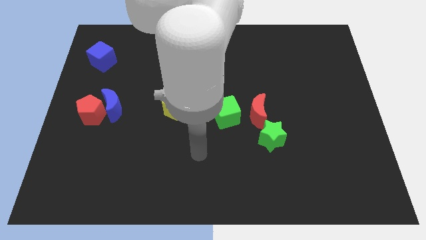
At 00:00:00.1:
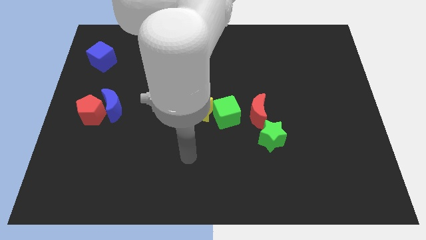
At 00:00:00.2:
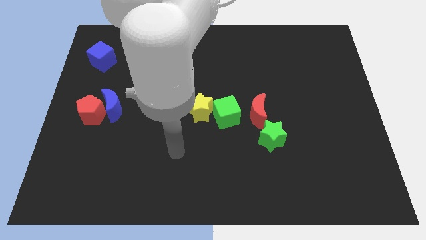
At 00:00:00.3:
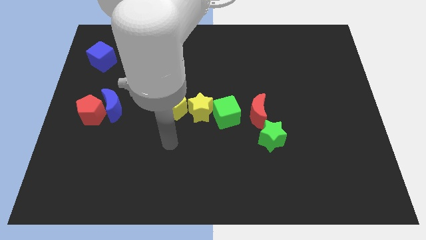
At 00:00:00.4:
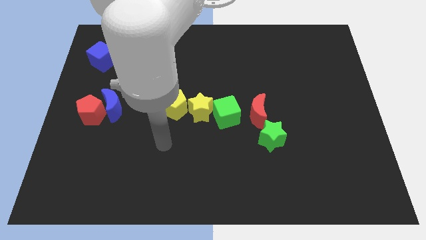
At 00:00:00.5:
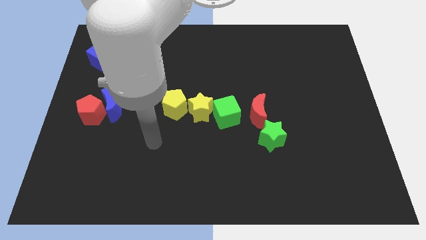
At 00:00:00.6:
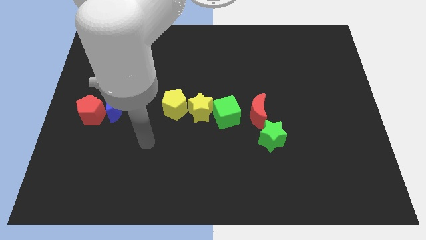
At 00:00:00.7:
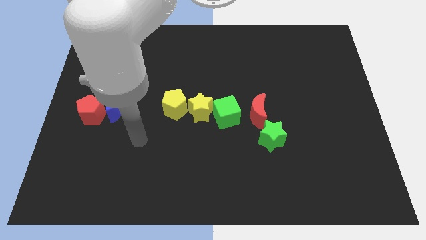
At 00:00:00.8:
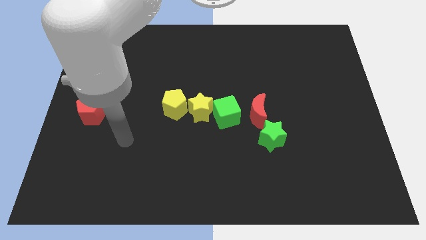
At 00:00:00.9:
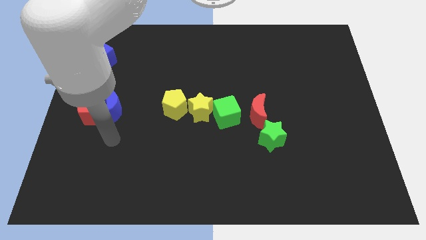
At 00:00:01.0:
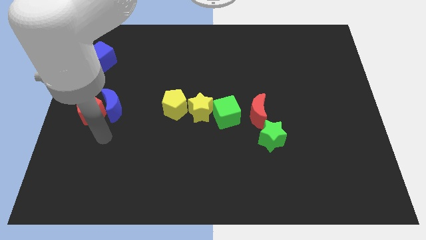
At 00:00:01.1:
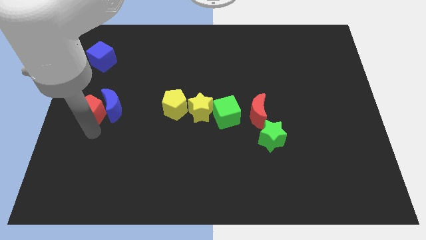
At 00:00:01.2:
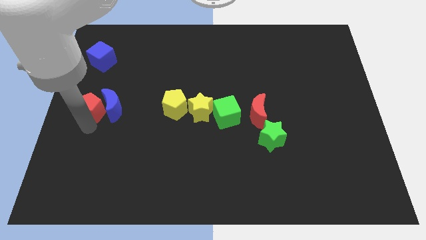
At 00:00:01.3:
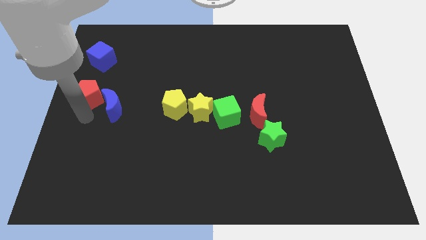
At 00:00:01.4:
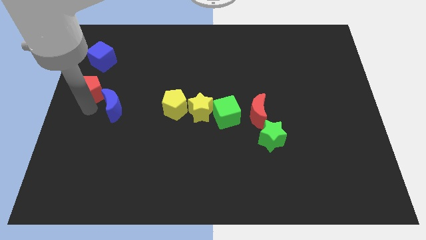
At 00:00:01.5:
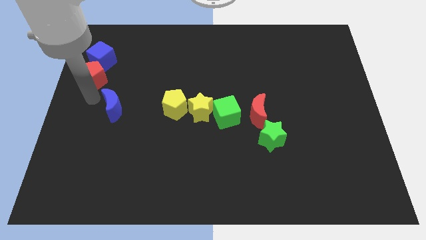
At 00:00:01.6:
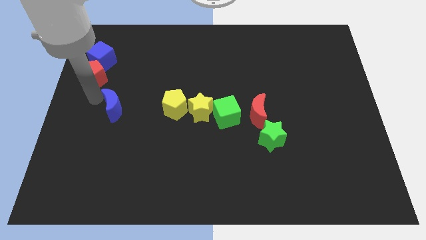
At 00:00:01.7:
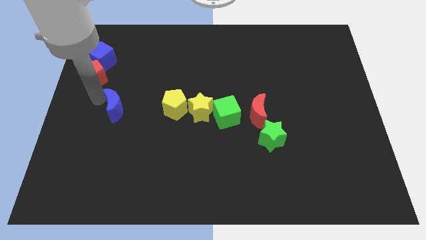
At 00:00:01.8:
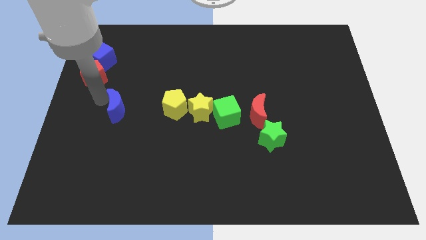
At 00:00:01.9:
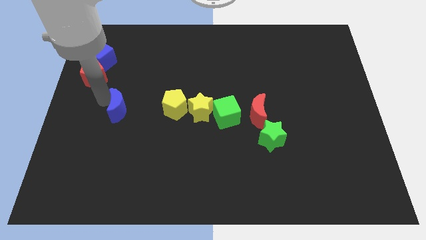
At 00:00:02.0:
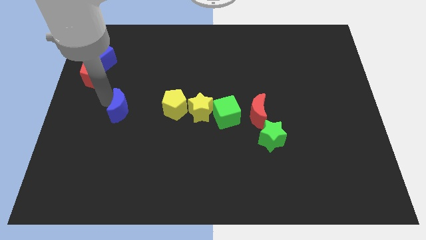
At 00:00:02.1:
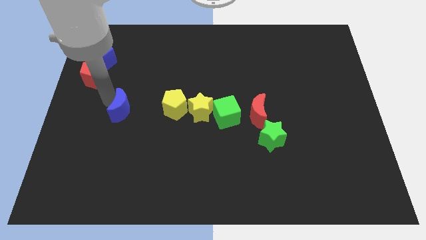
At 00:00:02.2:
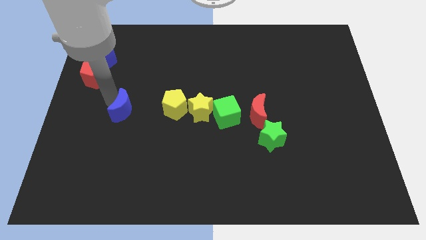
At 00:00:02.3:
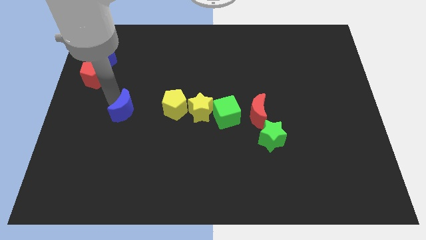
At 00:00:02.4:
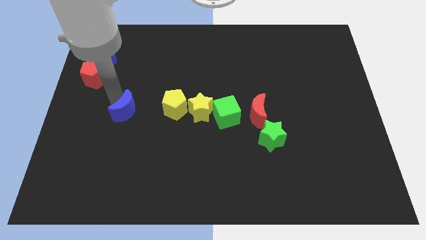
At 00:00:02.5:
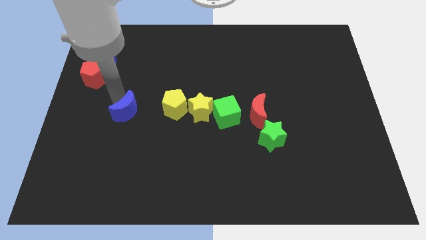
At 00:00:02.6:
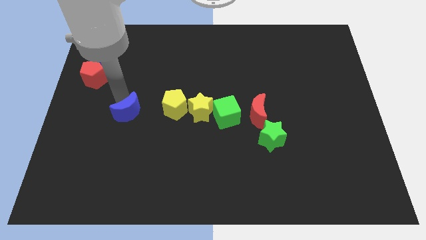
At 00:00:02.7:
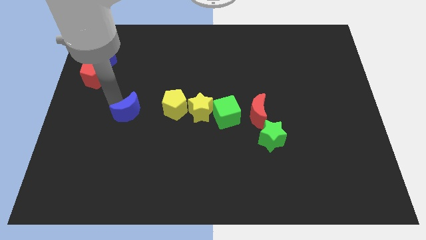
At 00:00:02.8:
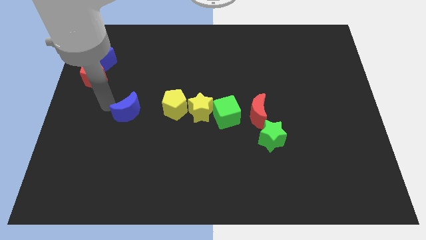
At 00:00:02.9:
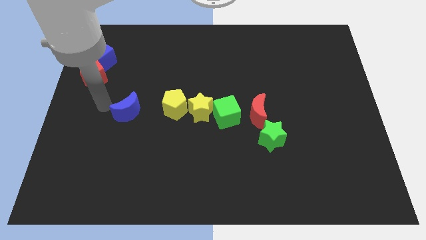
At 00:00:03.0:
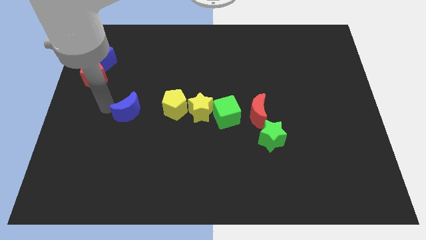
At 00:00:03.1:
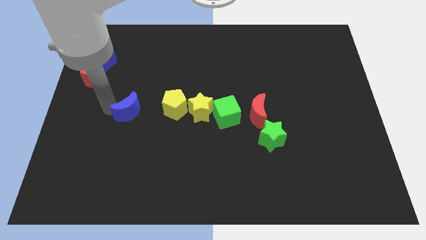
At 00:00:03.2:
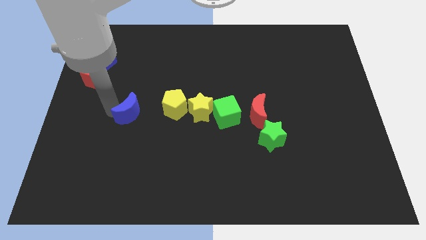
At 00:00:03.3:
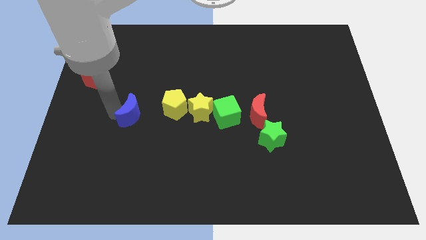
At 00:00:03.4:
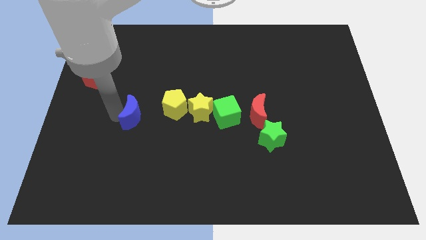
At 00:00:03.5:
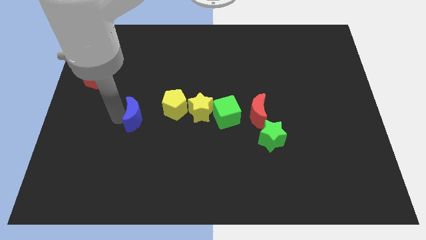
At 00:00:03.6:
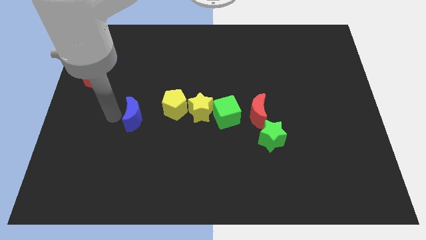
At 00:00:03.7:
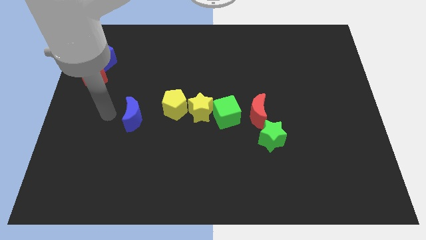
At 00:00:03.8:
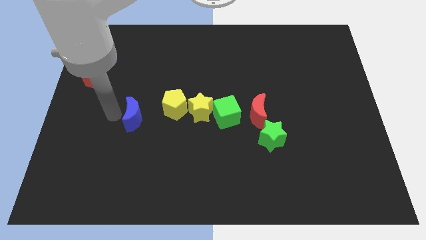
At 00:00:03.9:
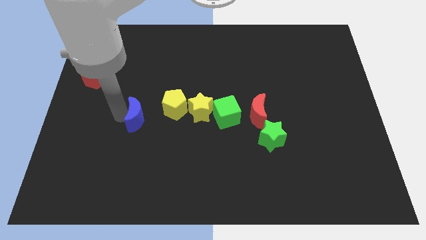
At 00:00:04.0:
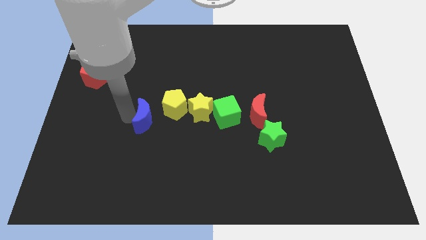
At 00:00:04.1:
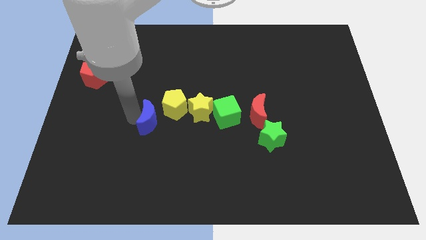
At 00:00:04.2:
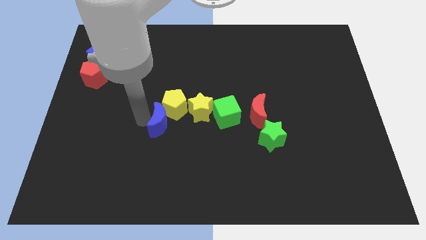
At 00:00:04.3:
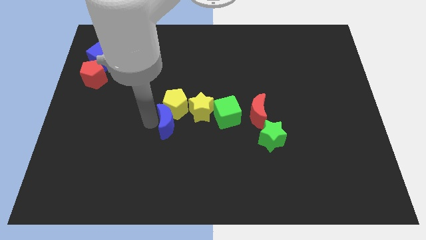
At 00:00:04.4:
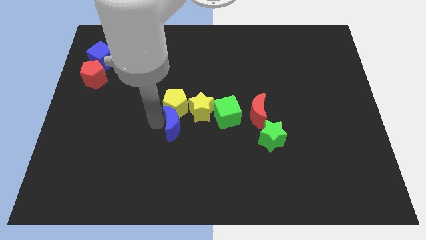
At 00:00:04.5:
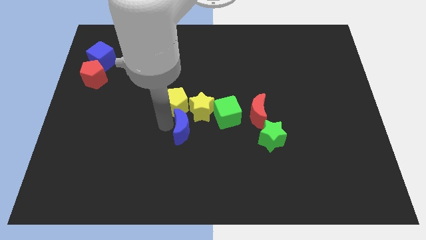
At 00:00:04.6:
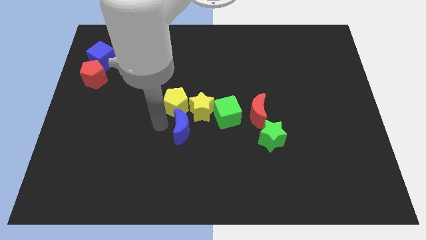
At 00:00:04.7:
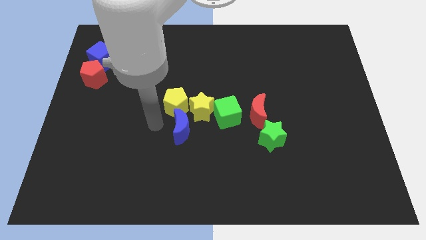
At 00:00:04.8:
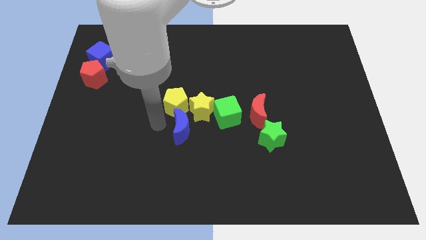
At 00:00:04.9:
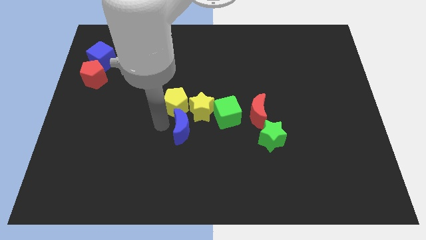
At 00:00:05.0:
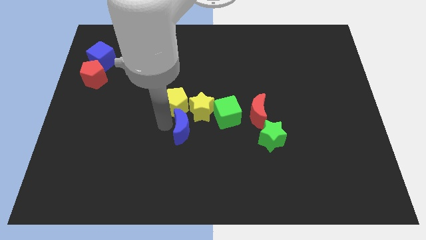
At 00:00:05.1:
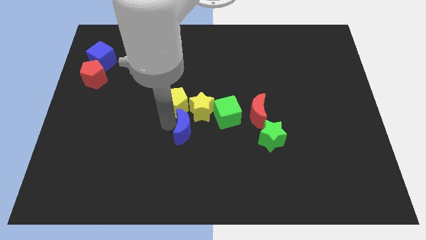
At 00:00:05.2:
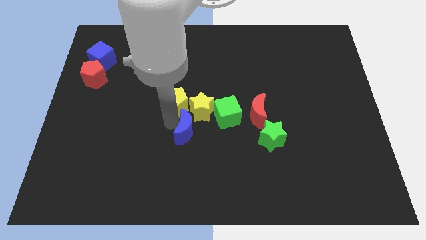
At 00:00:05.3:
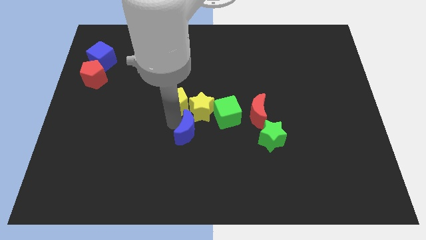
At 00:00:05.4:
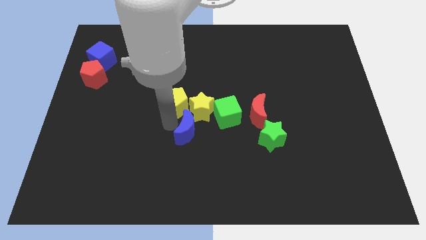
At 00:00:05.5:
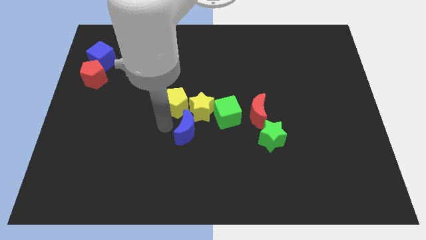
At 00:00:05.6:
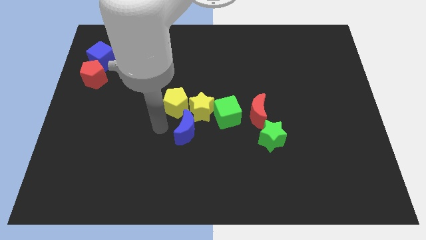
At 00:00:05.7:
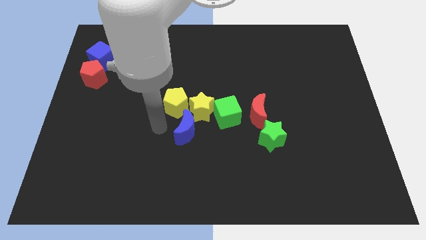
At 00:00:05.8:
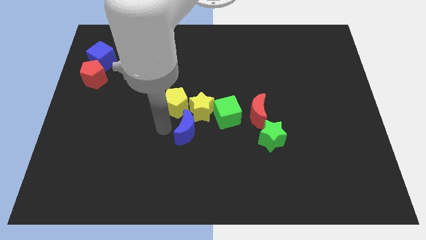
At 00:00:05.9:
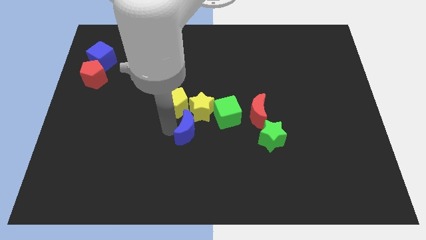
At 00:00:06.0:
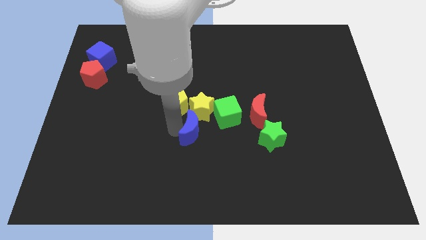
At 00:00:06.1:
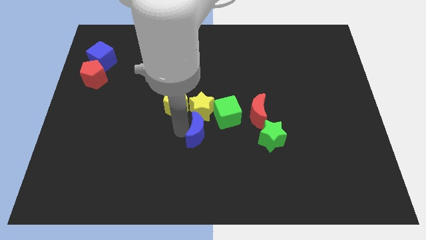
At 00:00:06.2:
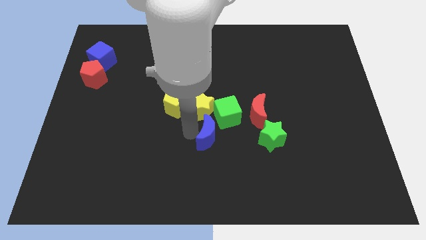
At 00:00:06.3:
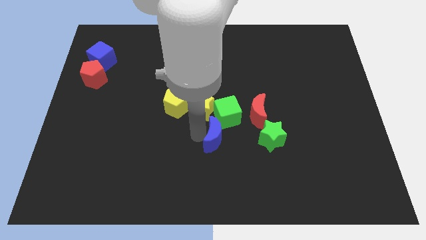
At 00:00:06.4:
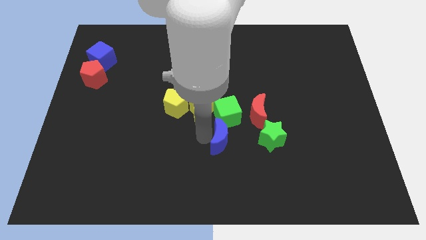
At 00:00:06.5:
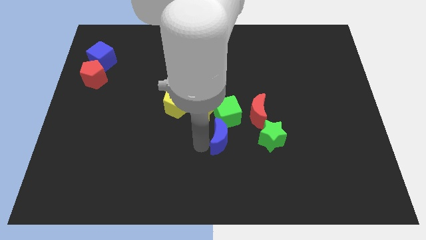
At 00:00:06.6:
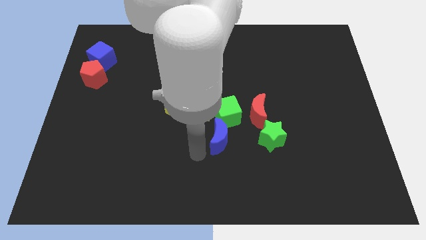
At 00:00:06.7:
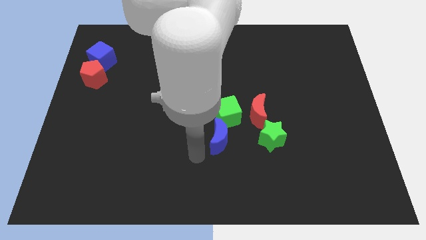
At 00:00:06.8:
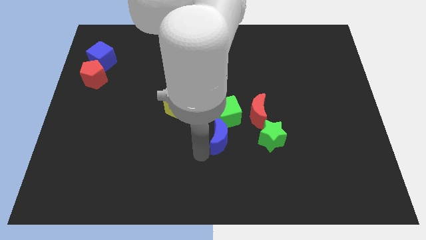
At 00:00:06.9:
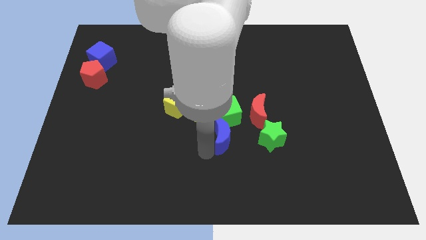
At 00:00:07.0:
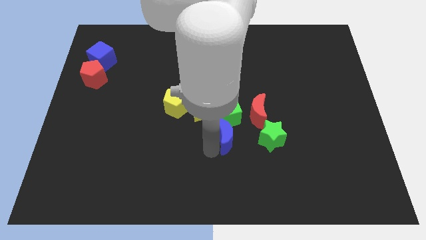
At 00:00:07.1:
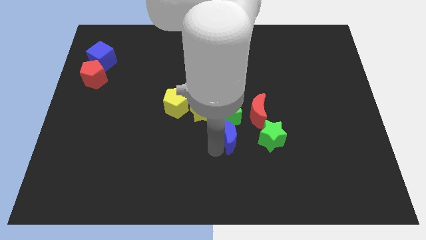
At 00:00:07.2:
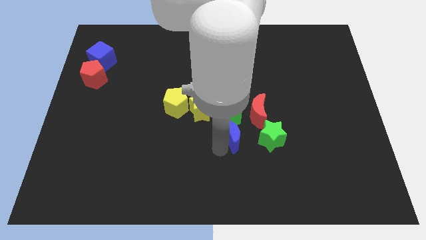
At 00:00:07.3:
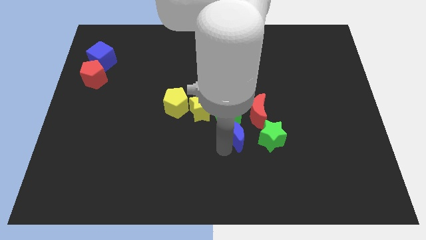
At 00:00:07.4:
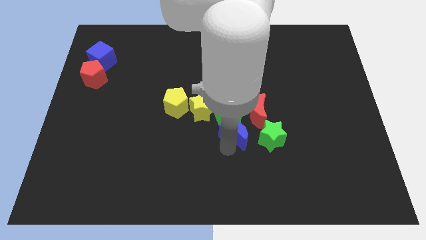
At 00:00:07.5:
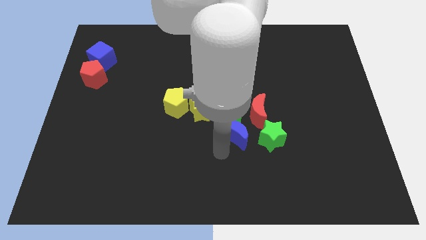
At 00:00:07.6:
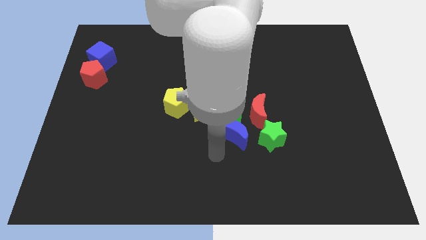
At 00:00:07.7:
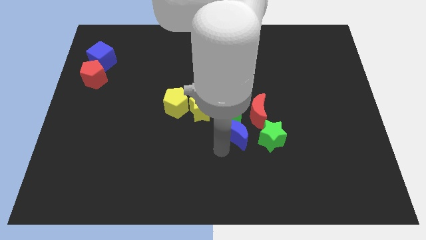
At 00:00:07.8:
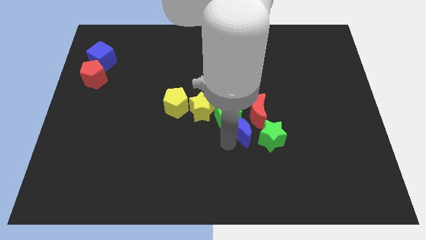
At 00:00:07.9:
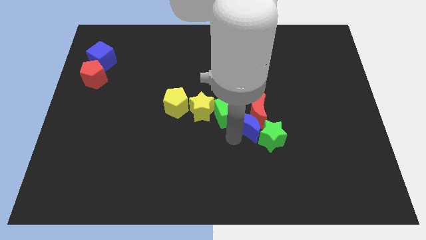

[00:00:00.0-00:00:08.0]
push the blue moon next to the red moon
